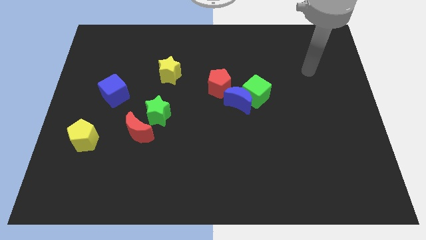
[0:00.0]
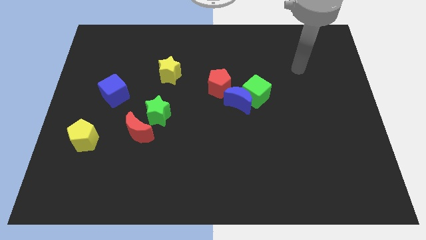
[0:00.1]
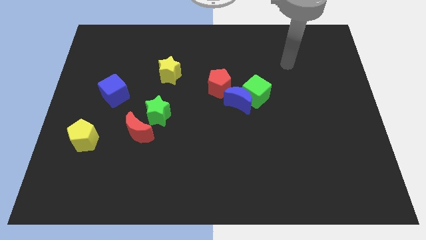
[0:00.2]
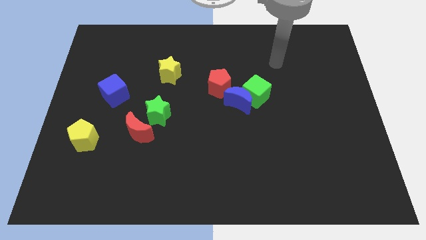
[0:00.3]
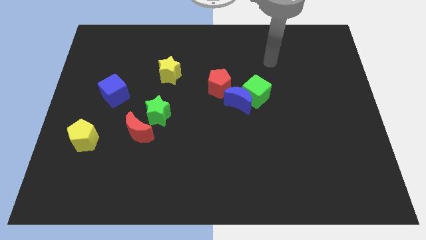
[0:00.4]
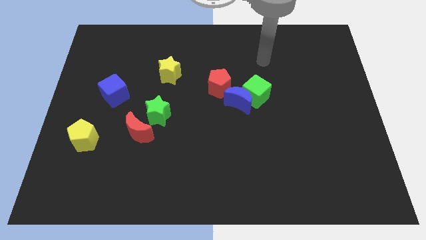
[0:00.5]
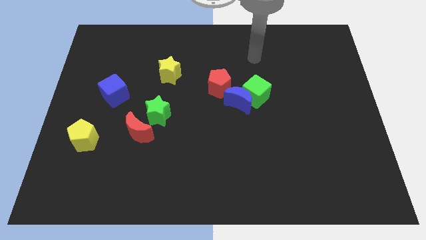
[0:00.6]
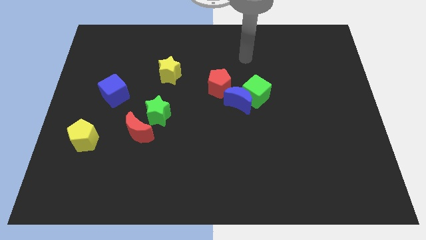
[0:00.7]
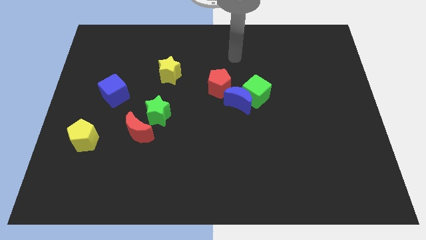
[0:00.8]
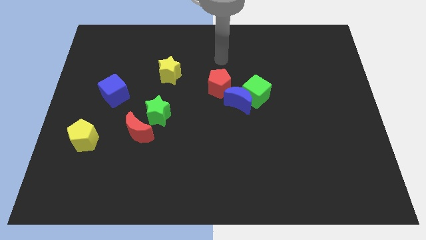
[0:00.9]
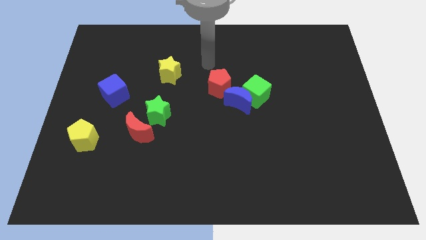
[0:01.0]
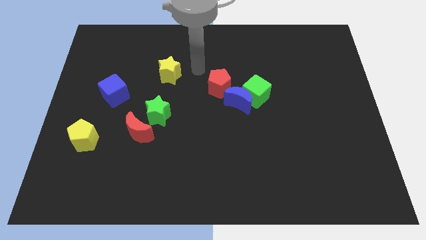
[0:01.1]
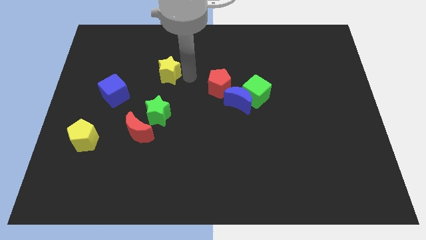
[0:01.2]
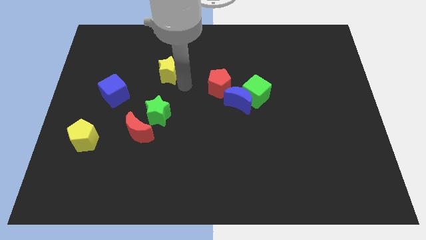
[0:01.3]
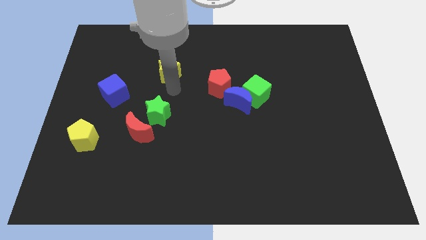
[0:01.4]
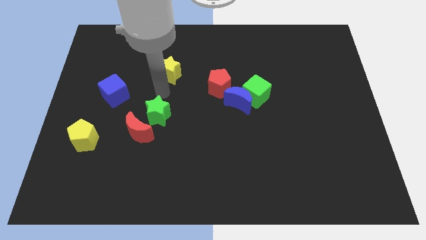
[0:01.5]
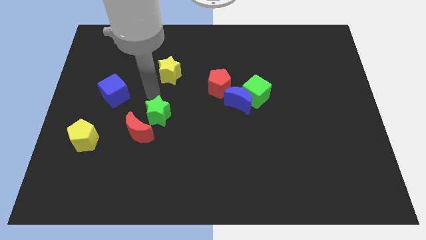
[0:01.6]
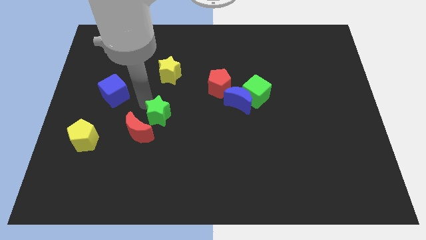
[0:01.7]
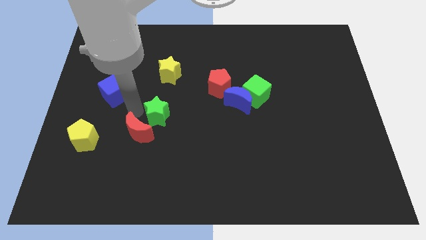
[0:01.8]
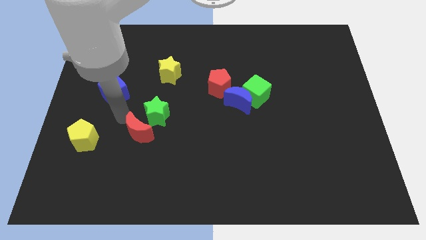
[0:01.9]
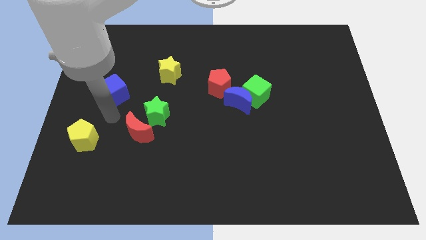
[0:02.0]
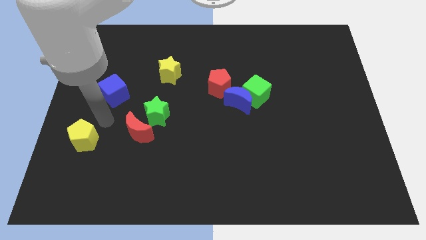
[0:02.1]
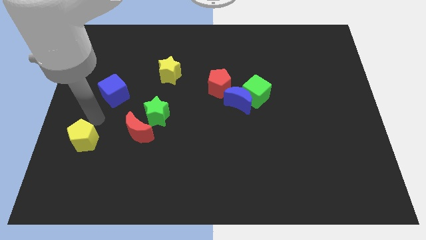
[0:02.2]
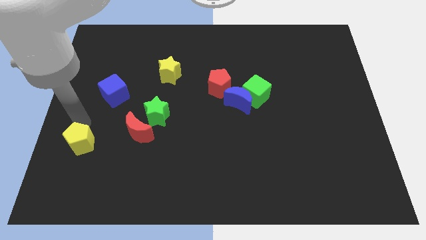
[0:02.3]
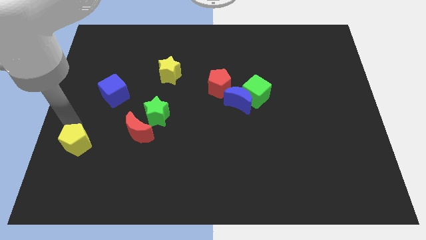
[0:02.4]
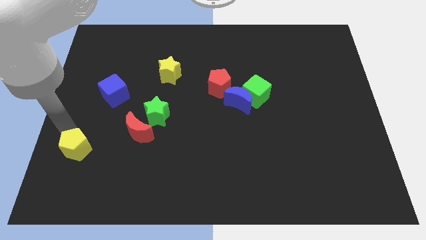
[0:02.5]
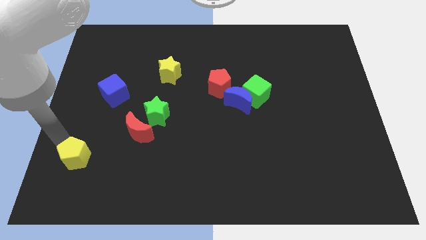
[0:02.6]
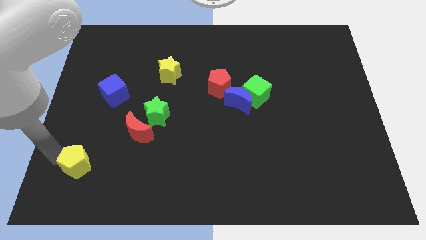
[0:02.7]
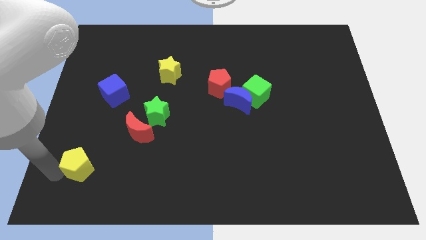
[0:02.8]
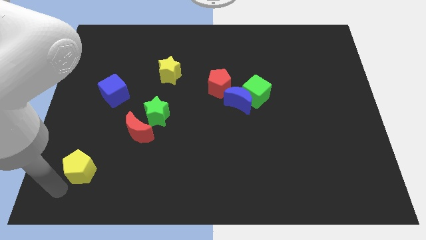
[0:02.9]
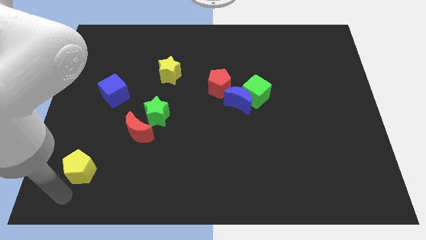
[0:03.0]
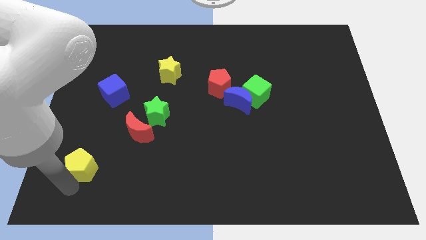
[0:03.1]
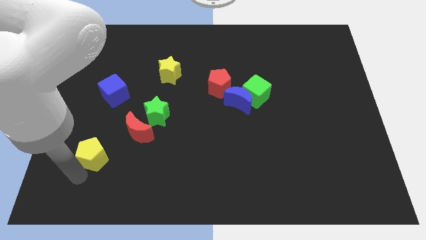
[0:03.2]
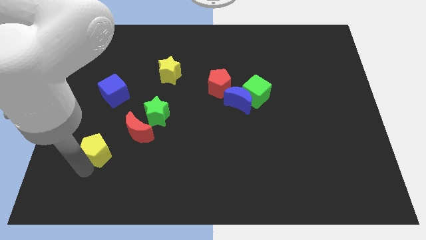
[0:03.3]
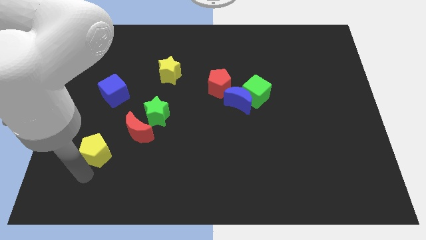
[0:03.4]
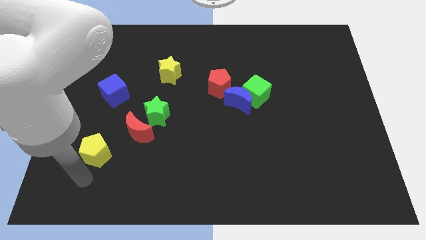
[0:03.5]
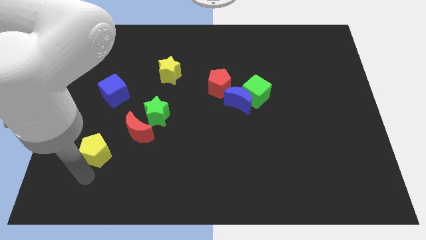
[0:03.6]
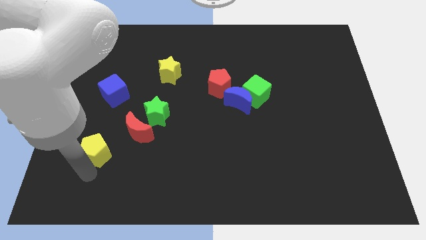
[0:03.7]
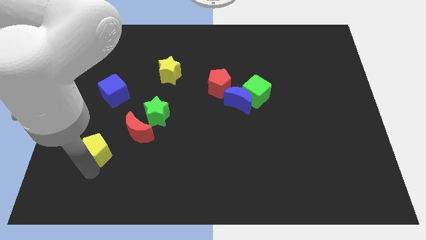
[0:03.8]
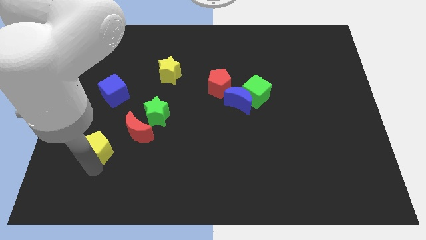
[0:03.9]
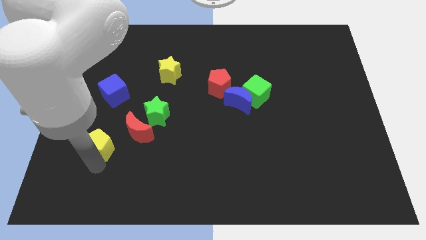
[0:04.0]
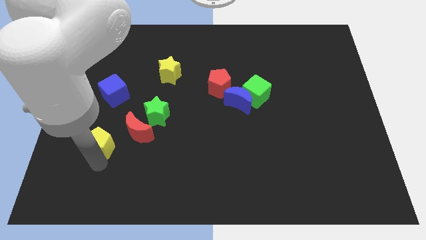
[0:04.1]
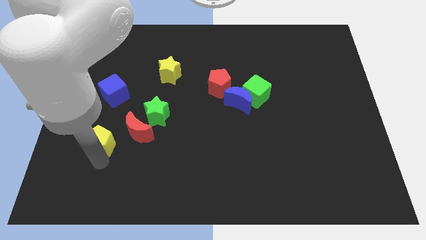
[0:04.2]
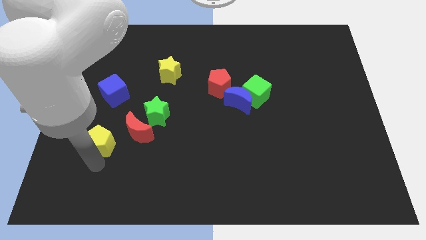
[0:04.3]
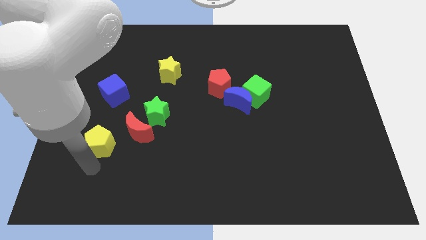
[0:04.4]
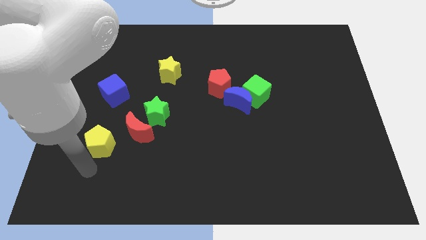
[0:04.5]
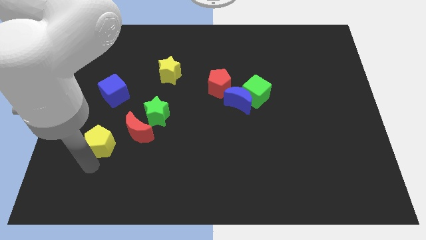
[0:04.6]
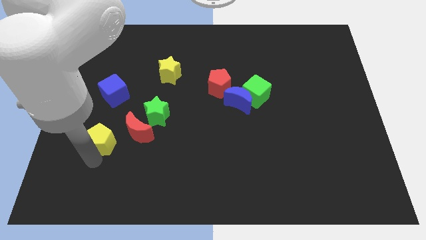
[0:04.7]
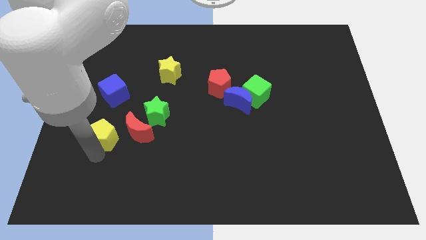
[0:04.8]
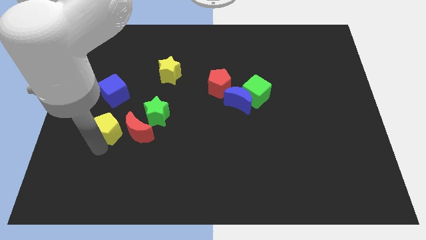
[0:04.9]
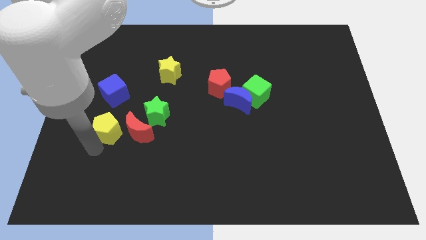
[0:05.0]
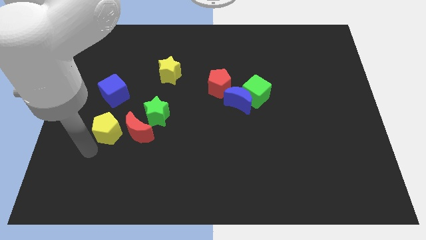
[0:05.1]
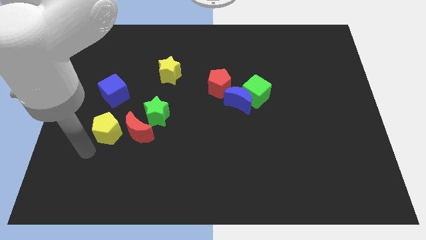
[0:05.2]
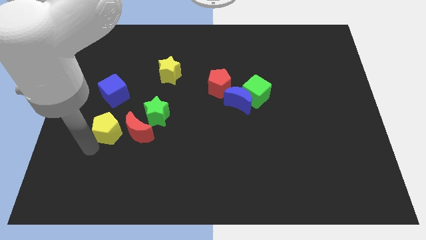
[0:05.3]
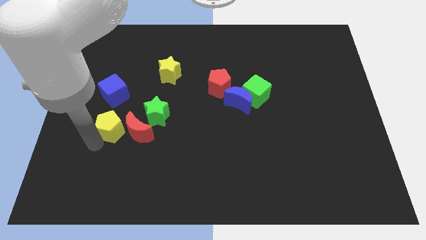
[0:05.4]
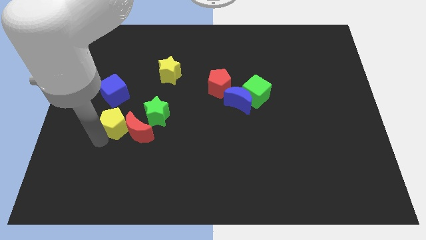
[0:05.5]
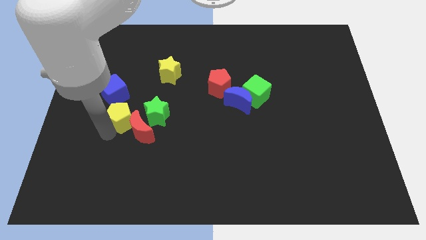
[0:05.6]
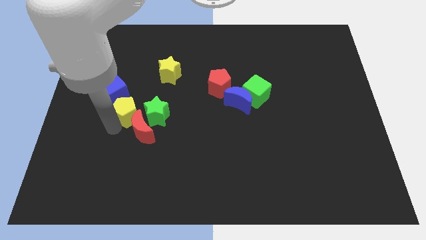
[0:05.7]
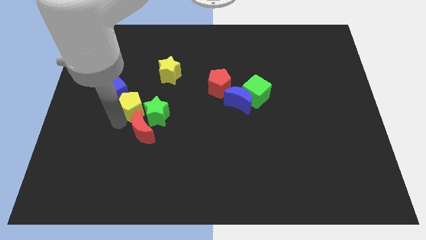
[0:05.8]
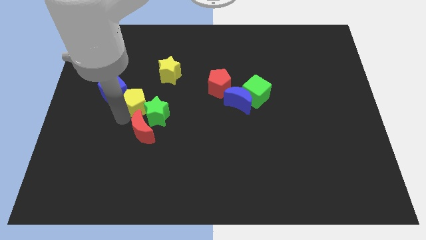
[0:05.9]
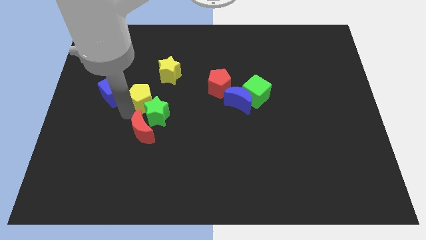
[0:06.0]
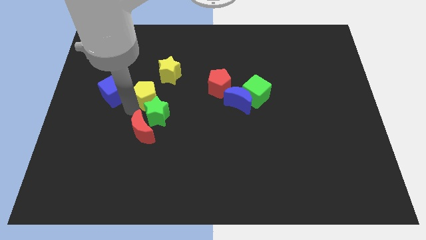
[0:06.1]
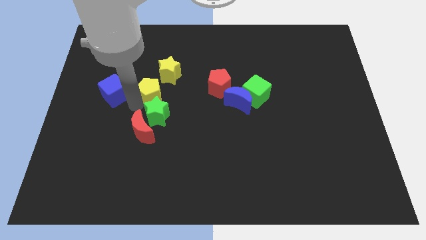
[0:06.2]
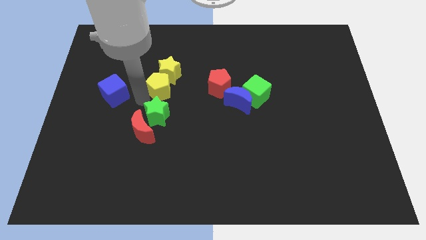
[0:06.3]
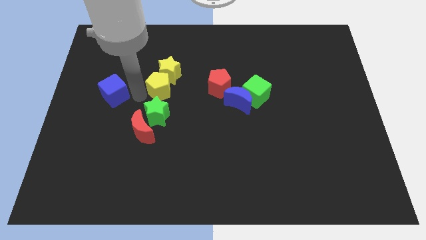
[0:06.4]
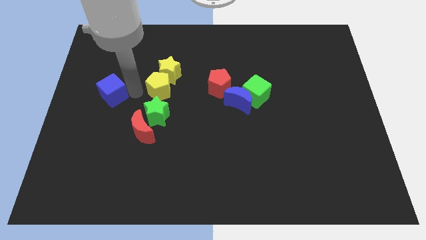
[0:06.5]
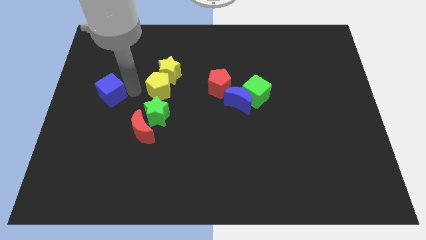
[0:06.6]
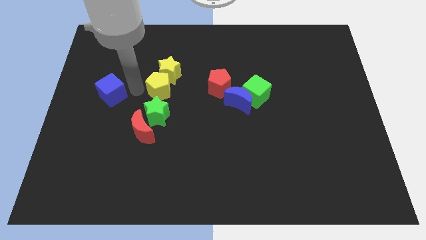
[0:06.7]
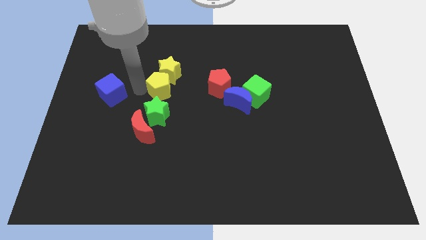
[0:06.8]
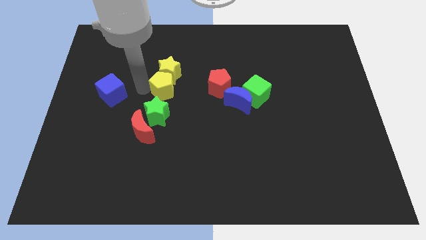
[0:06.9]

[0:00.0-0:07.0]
move the yellow pentagon to the bottom right of the yellow star

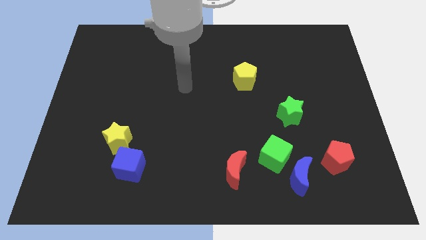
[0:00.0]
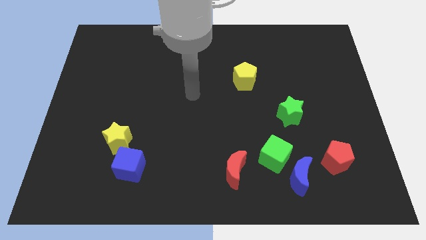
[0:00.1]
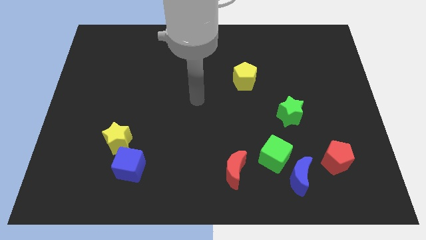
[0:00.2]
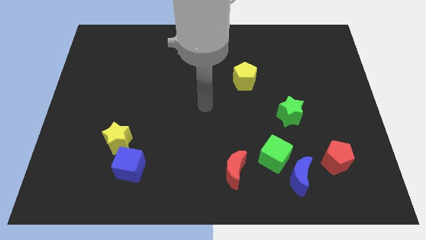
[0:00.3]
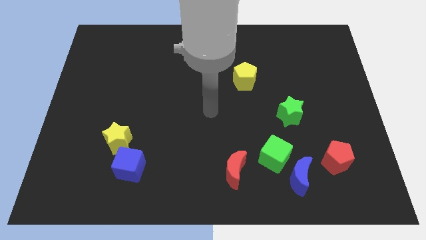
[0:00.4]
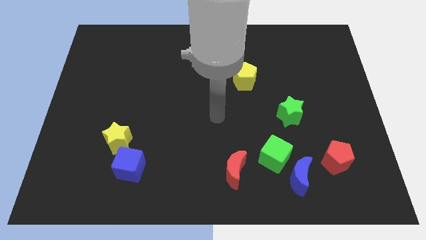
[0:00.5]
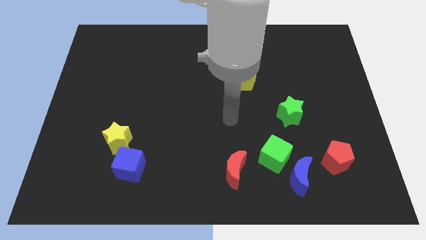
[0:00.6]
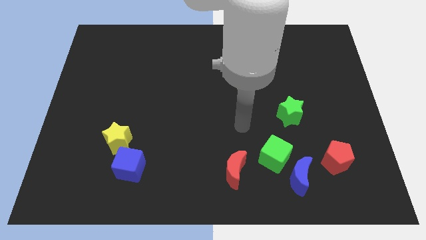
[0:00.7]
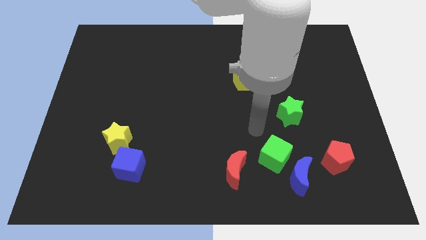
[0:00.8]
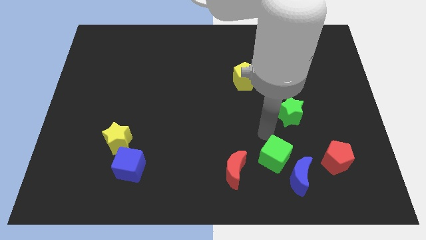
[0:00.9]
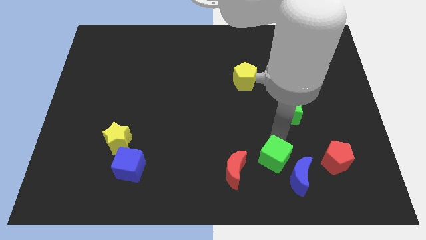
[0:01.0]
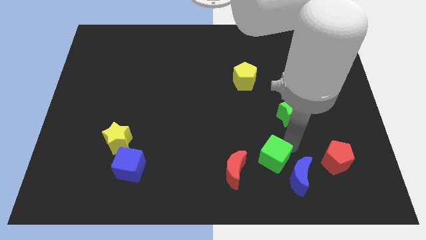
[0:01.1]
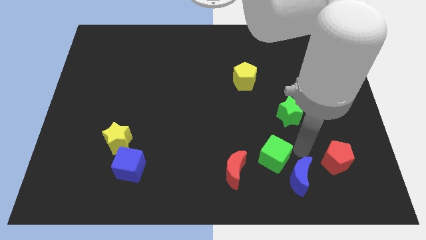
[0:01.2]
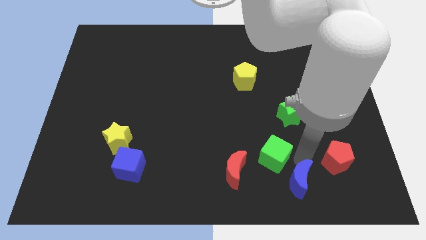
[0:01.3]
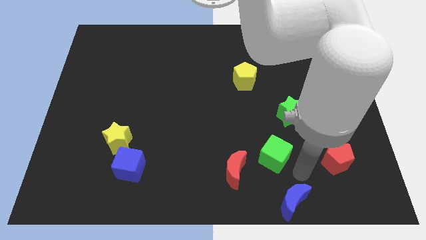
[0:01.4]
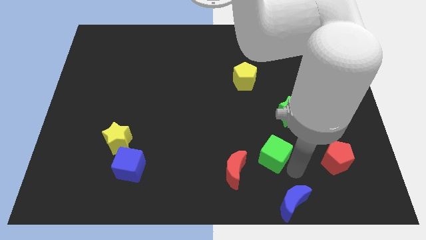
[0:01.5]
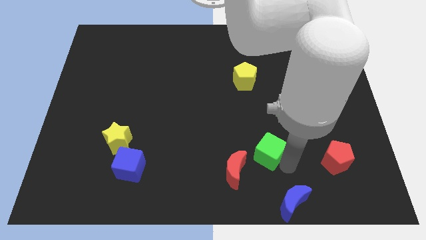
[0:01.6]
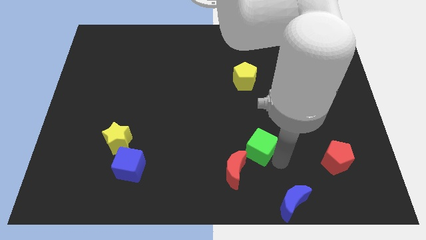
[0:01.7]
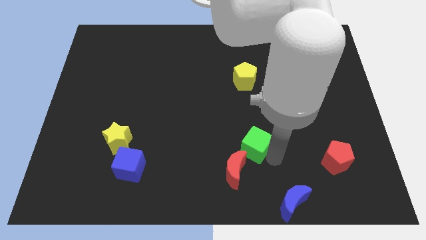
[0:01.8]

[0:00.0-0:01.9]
put the green cube to the top side of the red moon
